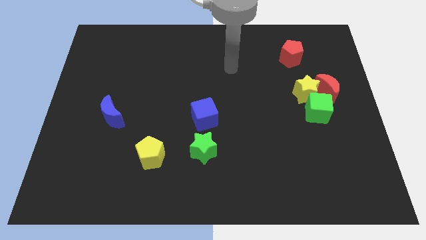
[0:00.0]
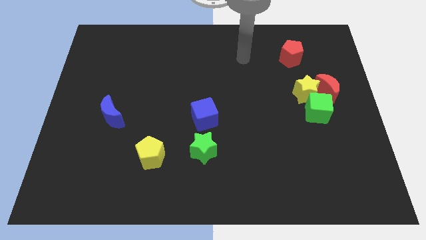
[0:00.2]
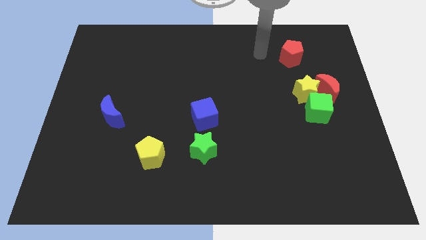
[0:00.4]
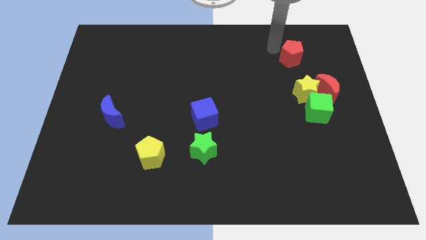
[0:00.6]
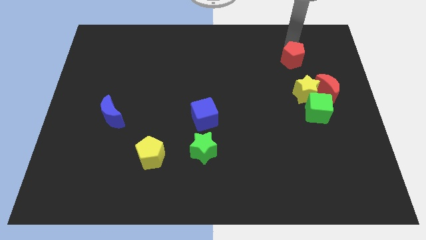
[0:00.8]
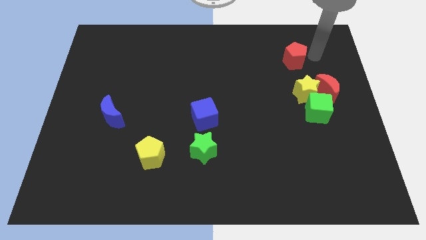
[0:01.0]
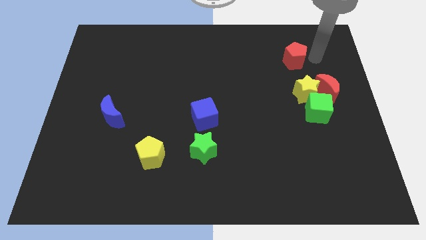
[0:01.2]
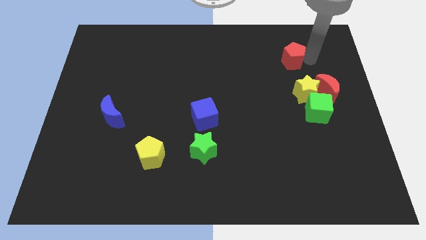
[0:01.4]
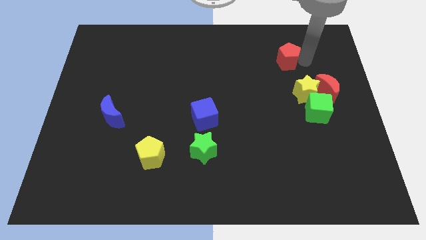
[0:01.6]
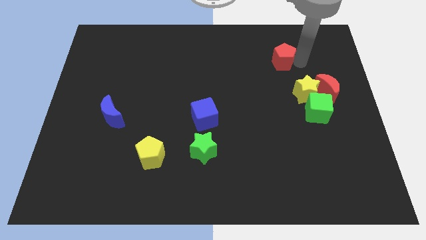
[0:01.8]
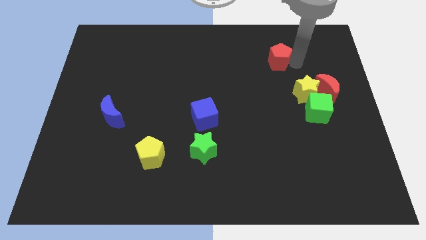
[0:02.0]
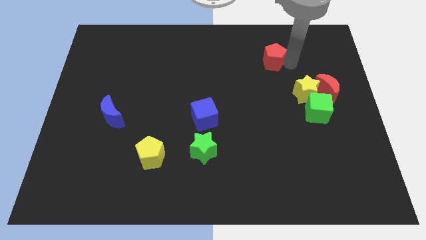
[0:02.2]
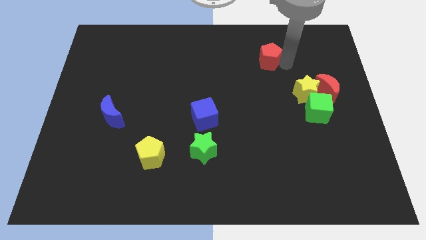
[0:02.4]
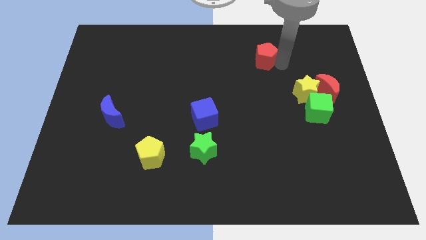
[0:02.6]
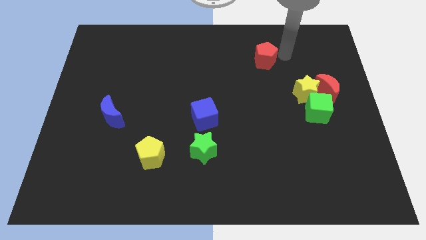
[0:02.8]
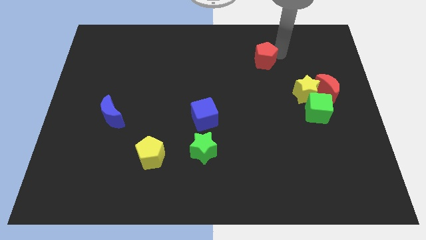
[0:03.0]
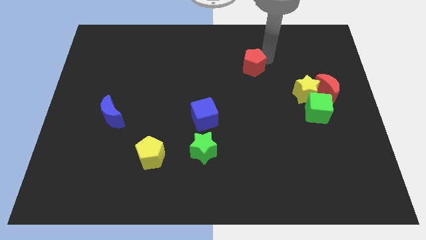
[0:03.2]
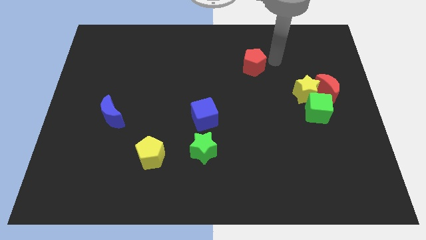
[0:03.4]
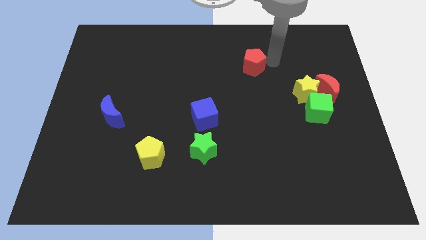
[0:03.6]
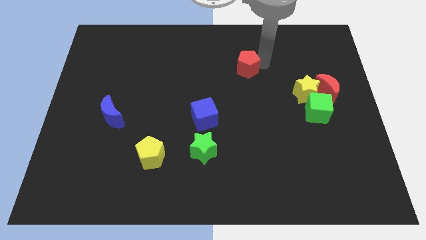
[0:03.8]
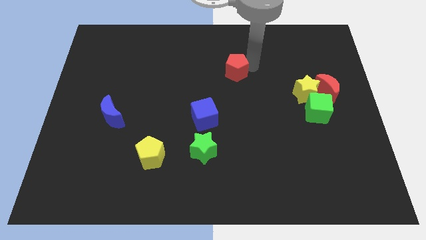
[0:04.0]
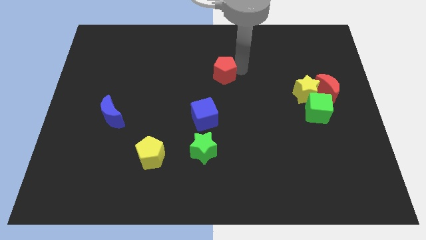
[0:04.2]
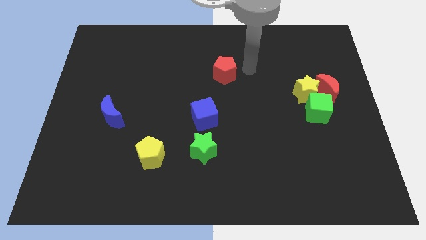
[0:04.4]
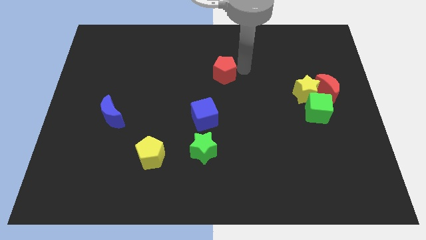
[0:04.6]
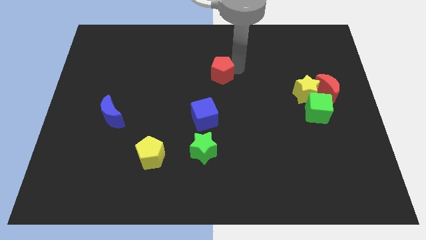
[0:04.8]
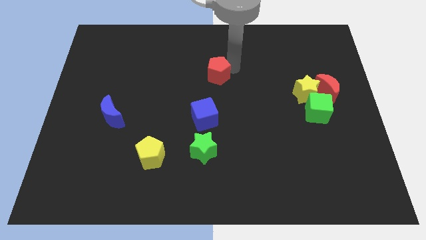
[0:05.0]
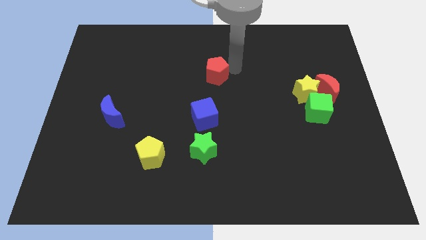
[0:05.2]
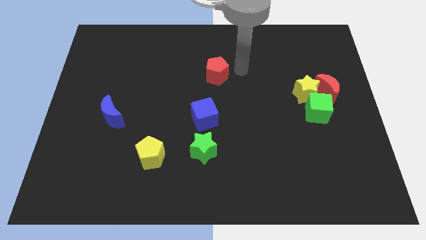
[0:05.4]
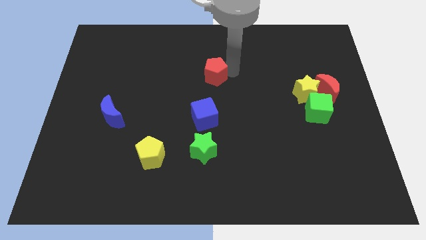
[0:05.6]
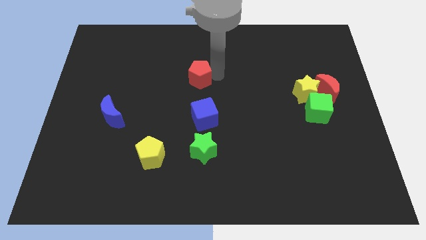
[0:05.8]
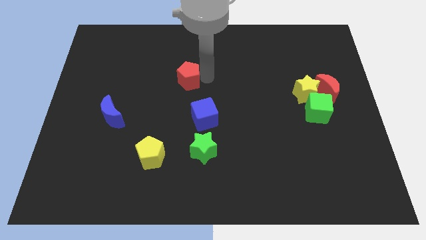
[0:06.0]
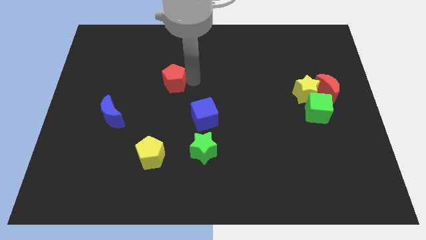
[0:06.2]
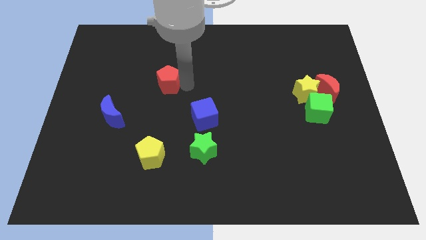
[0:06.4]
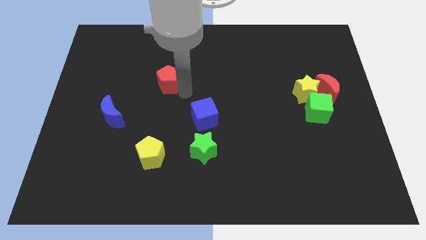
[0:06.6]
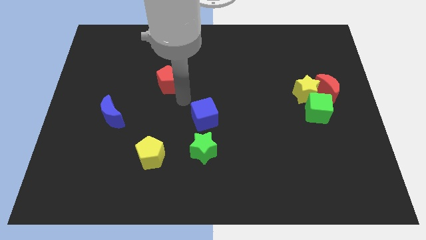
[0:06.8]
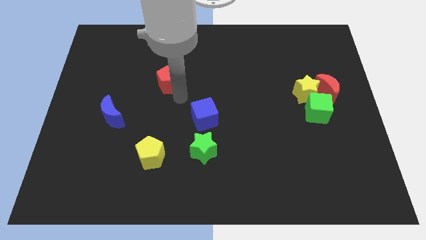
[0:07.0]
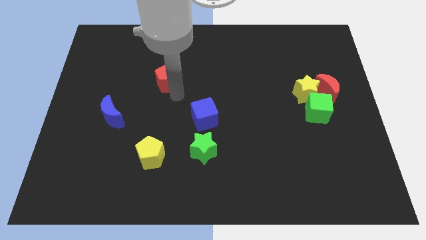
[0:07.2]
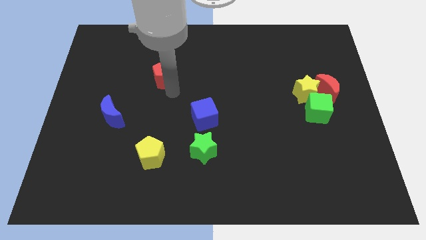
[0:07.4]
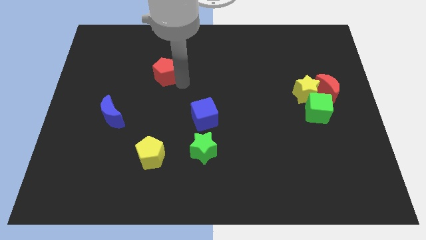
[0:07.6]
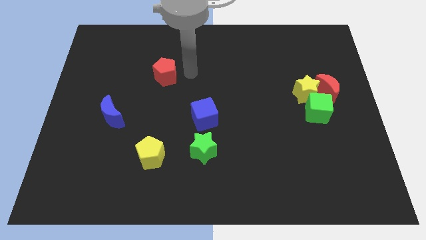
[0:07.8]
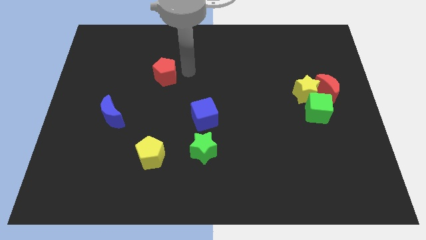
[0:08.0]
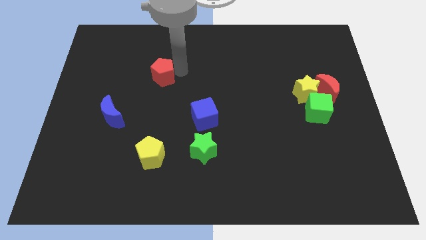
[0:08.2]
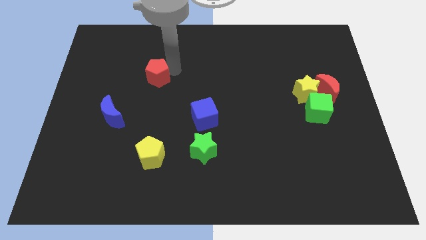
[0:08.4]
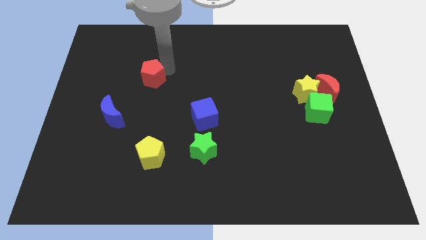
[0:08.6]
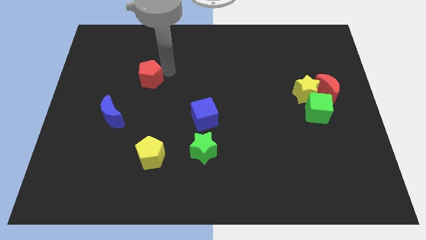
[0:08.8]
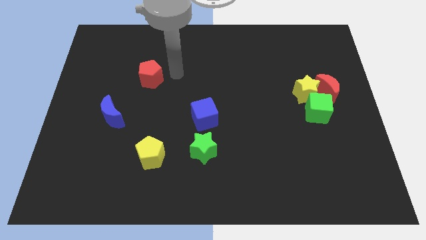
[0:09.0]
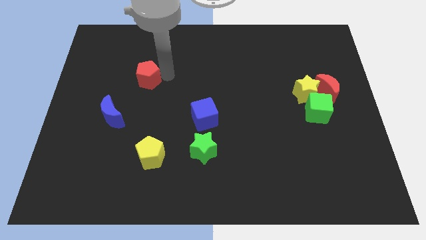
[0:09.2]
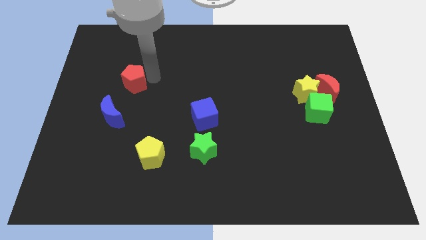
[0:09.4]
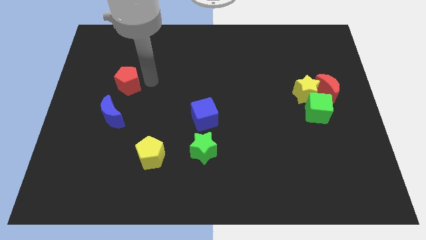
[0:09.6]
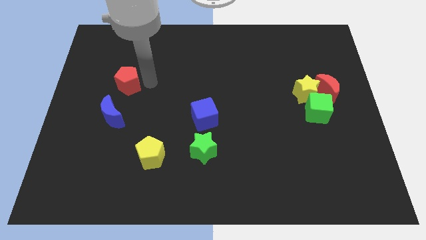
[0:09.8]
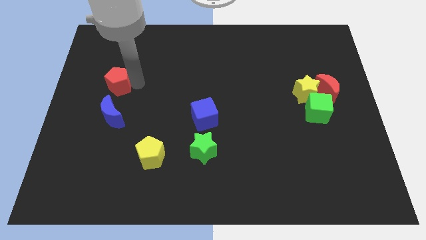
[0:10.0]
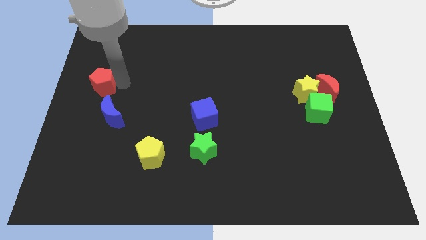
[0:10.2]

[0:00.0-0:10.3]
push the red pentagon to the left side of the board

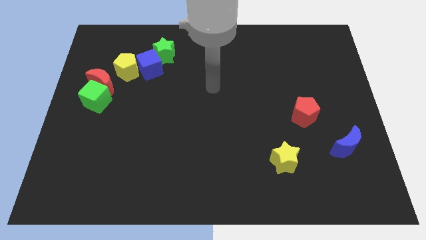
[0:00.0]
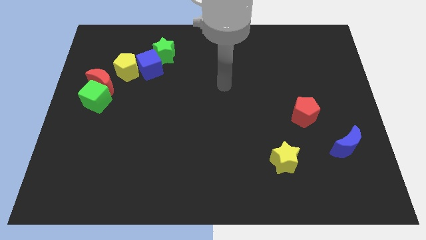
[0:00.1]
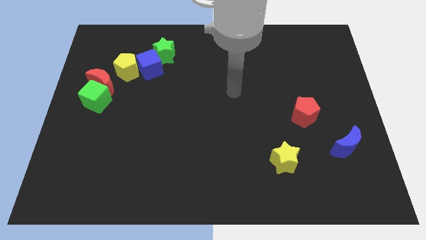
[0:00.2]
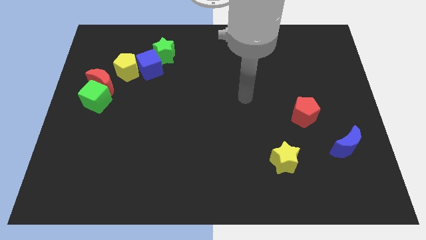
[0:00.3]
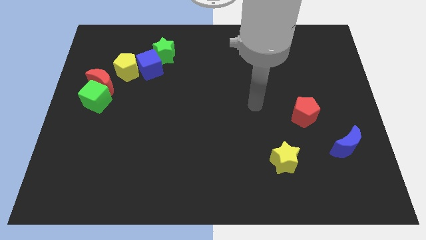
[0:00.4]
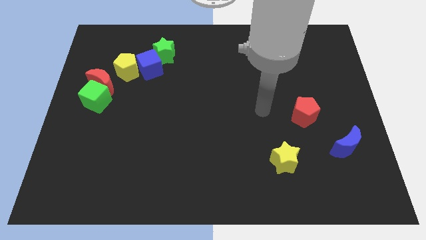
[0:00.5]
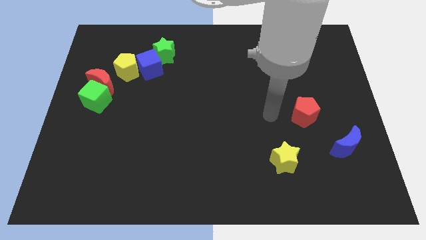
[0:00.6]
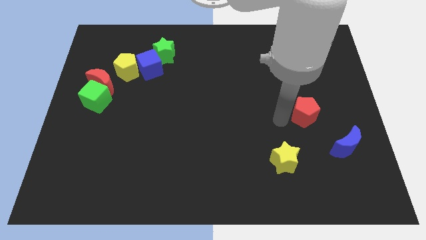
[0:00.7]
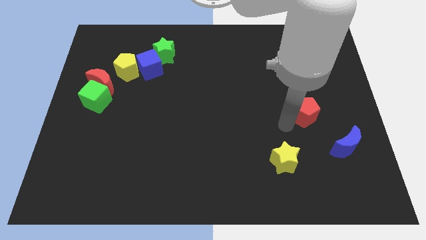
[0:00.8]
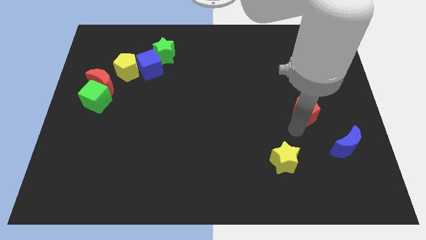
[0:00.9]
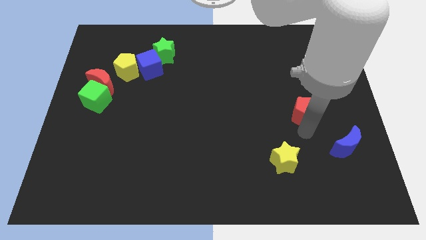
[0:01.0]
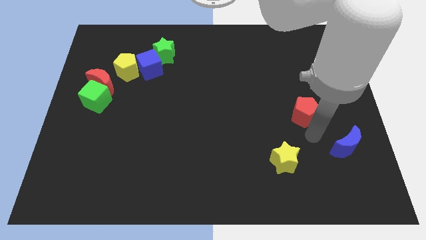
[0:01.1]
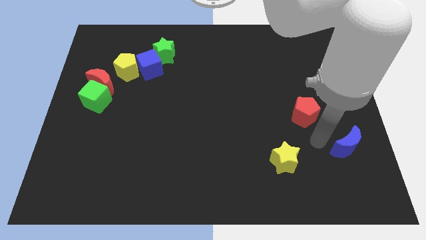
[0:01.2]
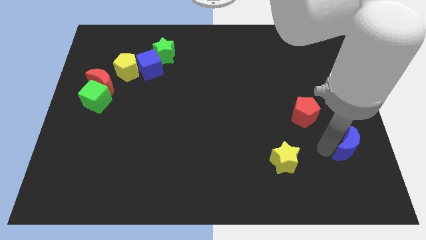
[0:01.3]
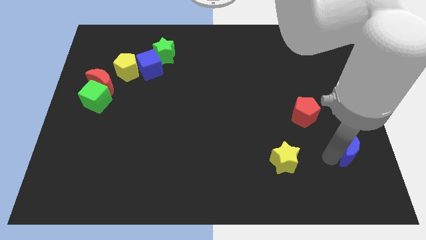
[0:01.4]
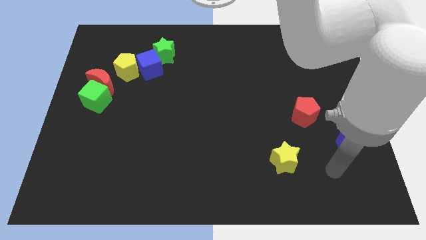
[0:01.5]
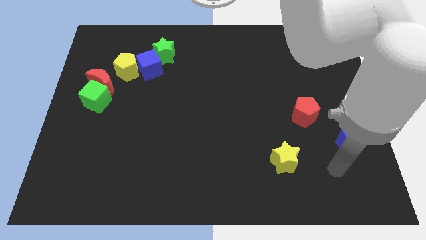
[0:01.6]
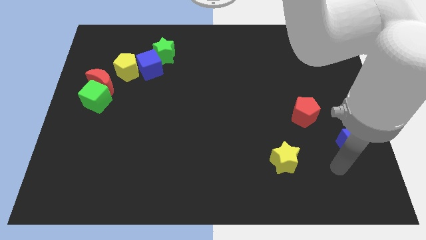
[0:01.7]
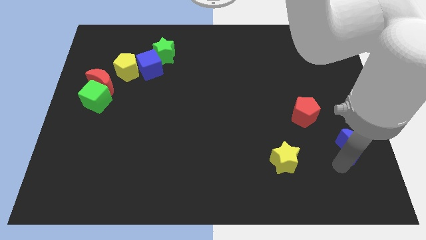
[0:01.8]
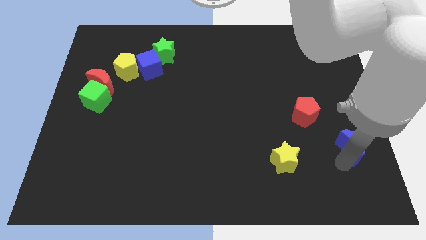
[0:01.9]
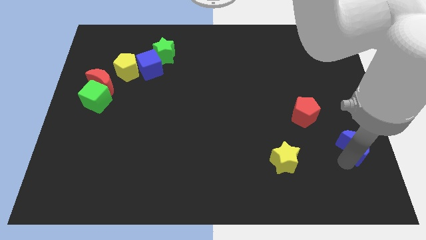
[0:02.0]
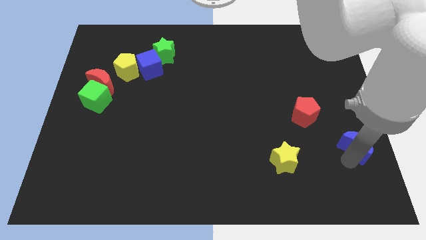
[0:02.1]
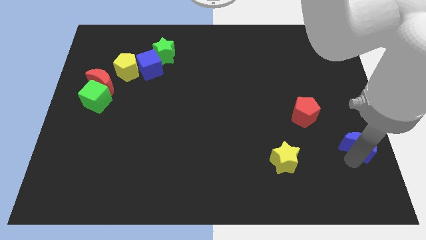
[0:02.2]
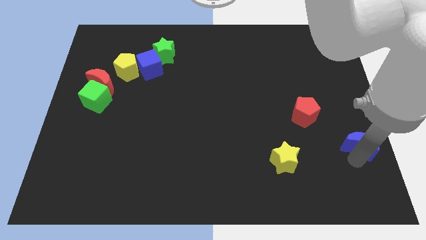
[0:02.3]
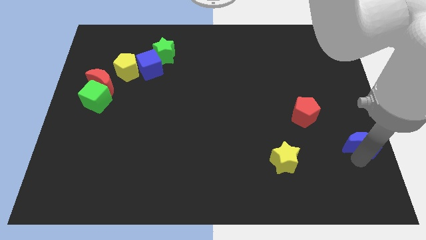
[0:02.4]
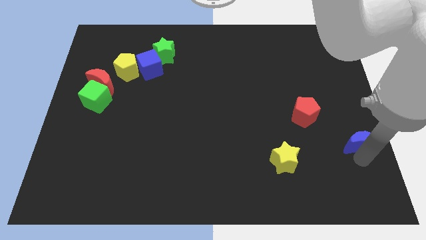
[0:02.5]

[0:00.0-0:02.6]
move the blue moon to the center right
